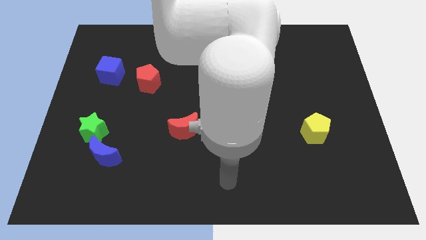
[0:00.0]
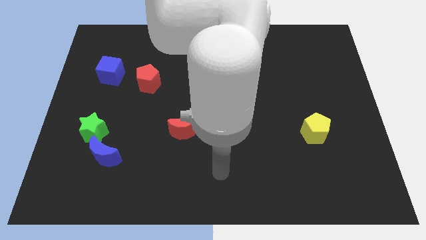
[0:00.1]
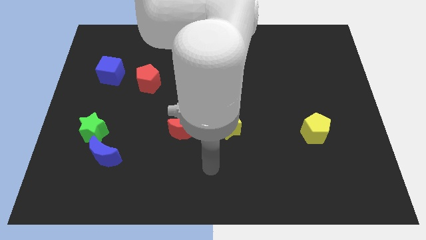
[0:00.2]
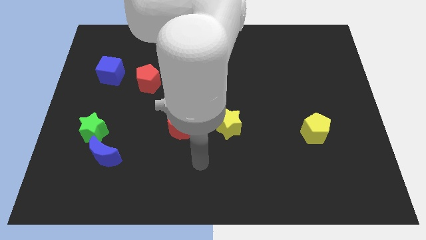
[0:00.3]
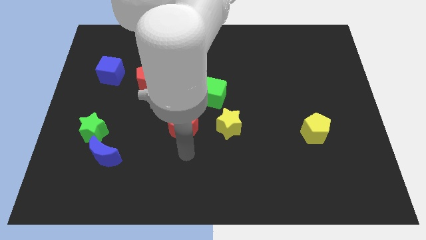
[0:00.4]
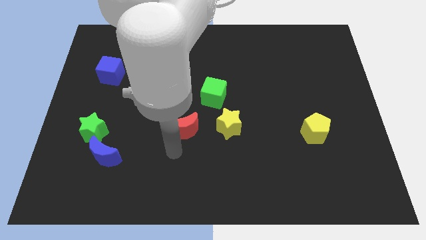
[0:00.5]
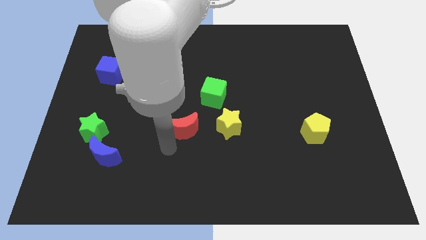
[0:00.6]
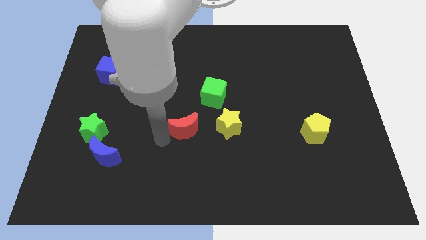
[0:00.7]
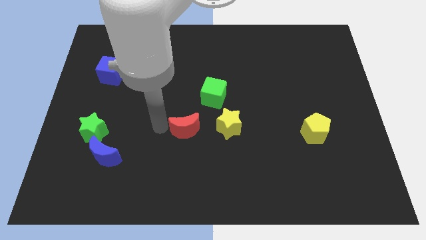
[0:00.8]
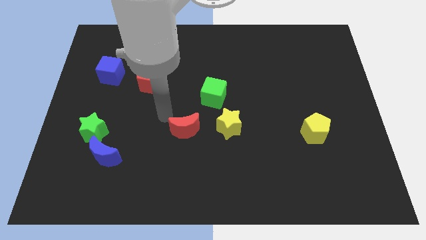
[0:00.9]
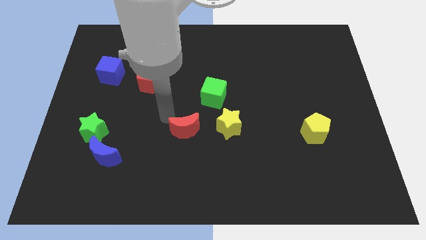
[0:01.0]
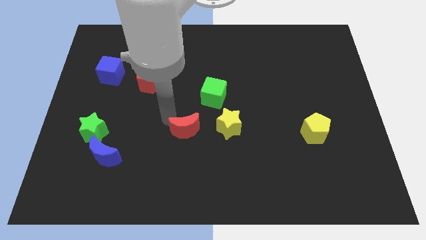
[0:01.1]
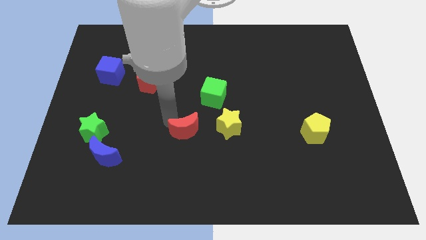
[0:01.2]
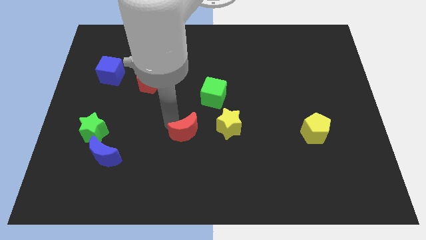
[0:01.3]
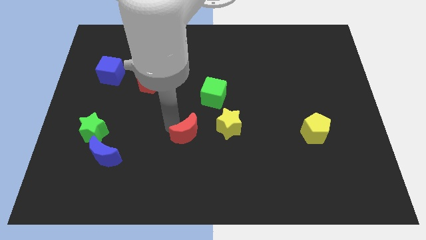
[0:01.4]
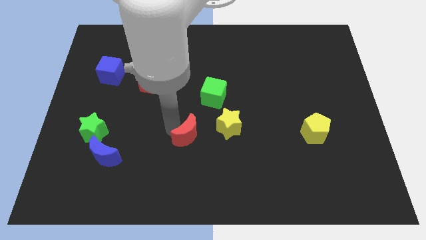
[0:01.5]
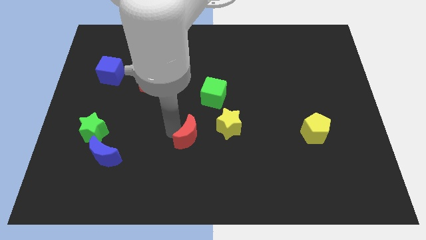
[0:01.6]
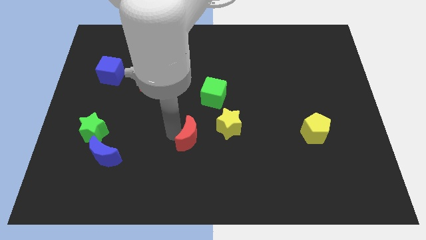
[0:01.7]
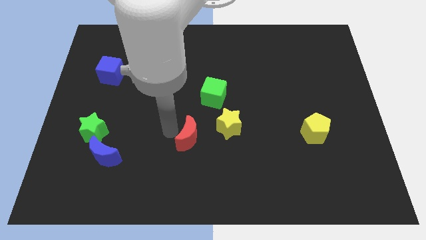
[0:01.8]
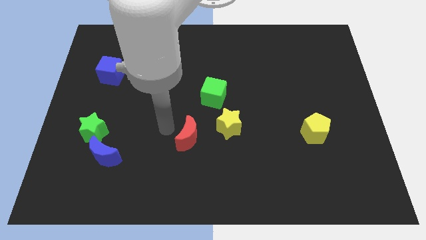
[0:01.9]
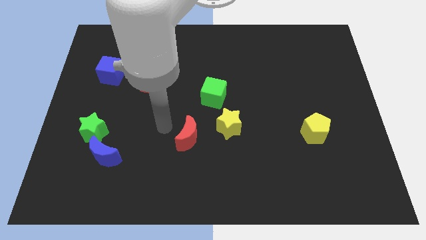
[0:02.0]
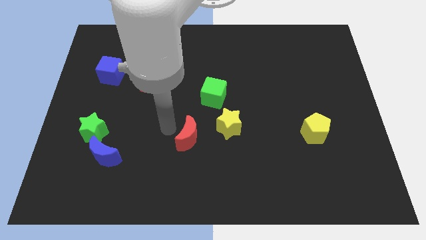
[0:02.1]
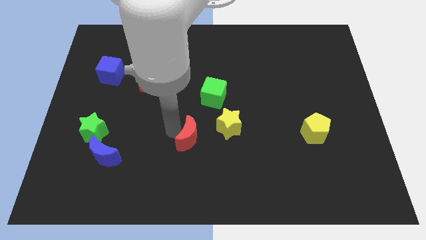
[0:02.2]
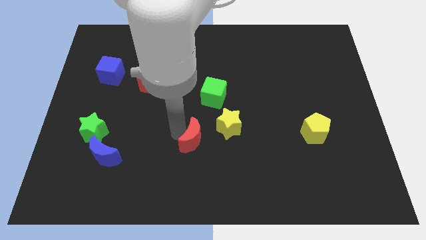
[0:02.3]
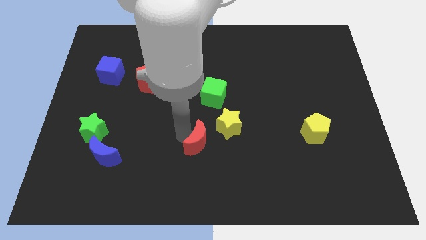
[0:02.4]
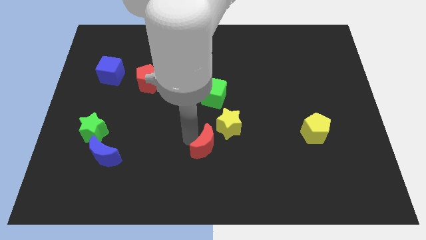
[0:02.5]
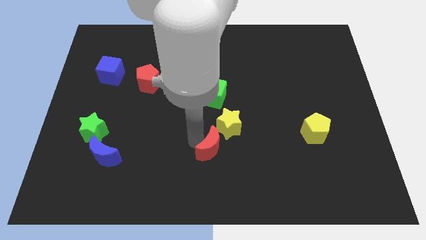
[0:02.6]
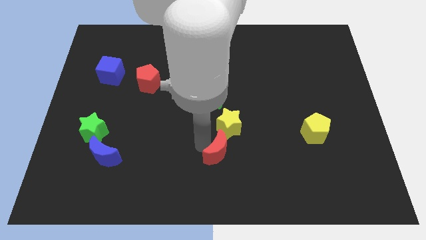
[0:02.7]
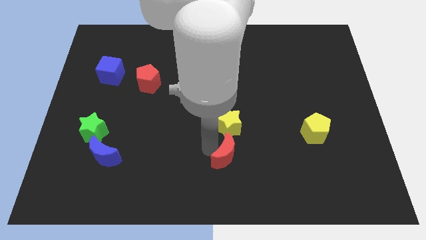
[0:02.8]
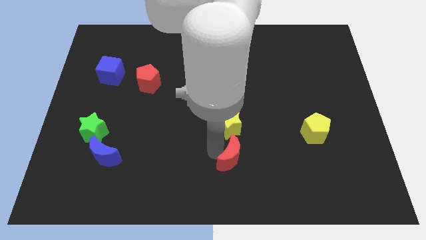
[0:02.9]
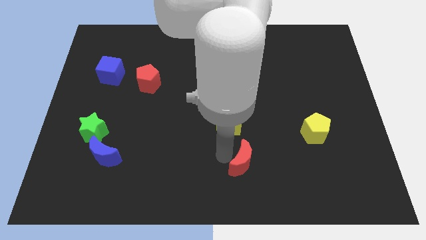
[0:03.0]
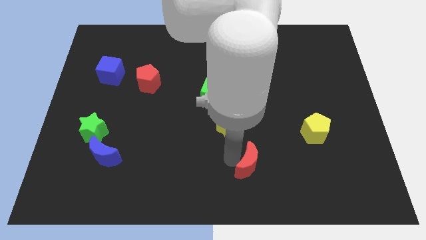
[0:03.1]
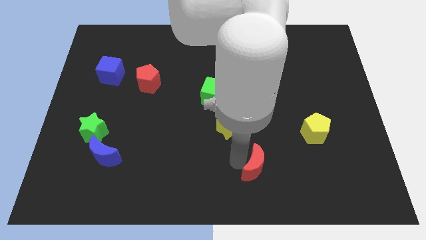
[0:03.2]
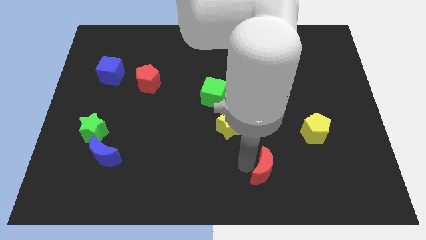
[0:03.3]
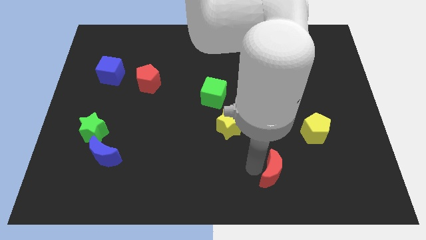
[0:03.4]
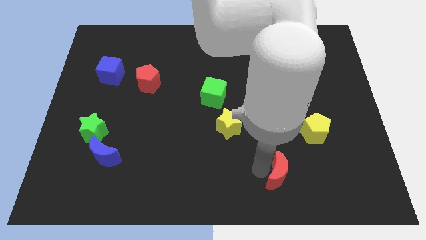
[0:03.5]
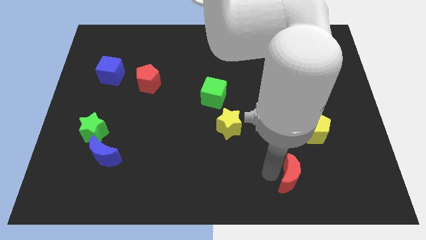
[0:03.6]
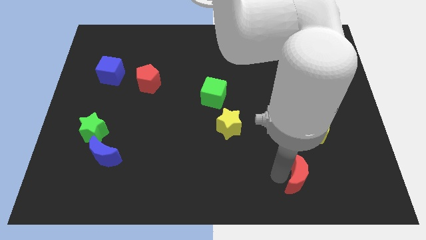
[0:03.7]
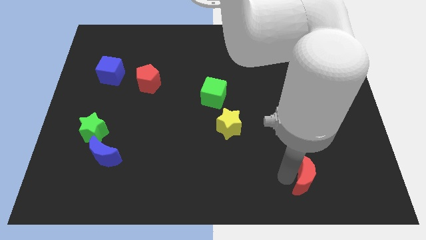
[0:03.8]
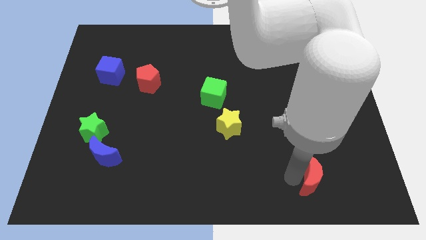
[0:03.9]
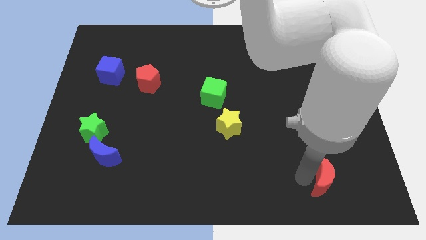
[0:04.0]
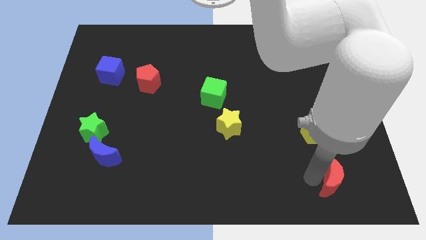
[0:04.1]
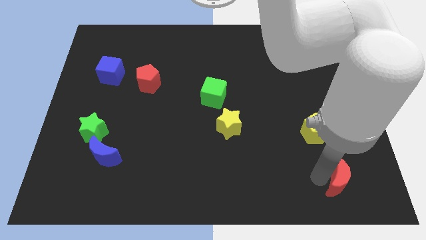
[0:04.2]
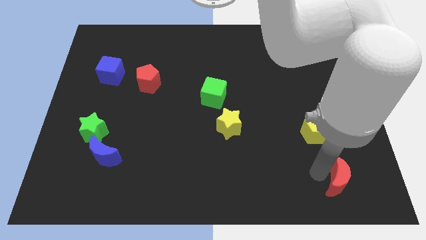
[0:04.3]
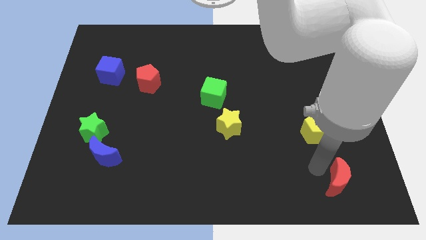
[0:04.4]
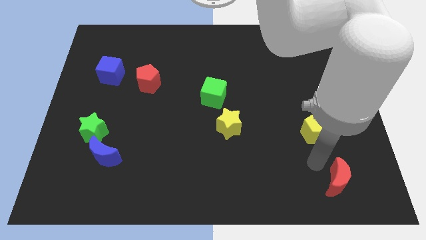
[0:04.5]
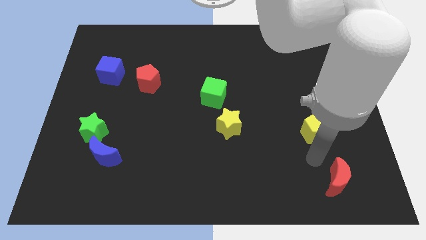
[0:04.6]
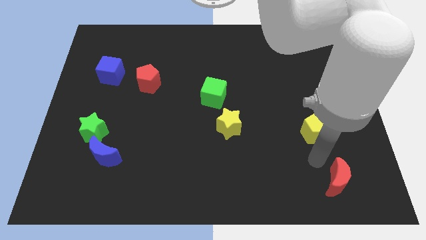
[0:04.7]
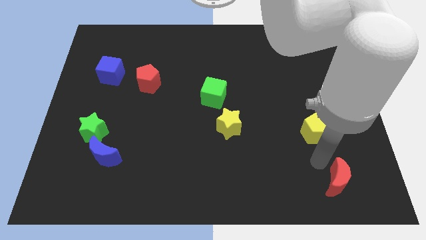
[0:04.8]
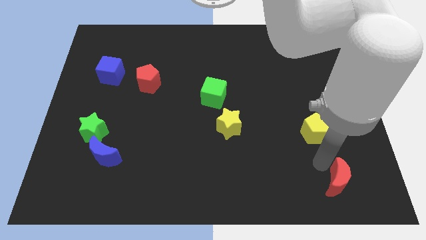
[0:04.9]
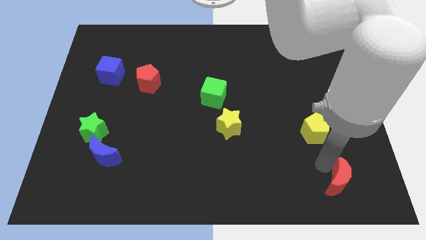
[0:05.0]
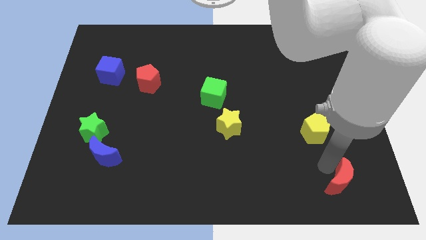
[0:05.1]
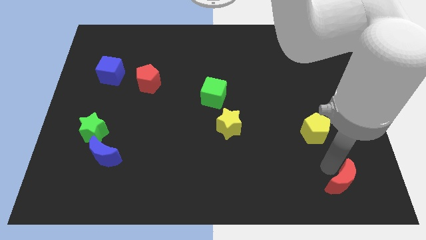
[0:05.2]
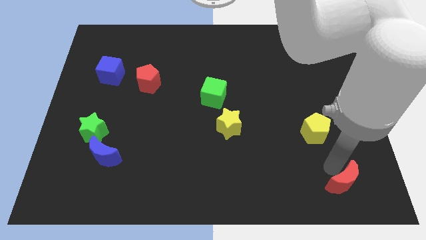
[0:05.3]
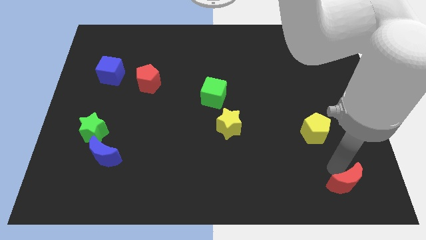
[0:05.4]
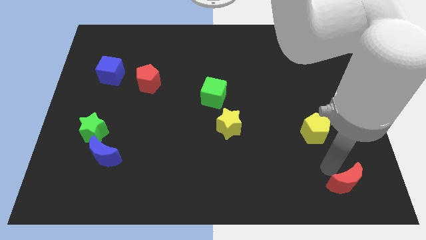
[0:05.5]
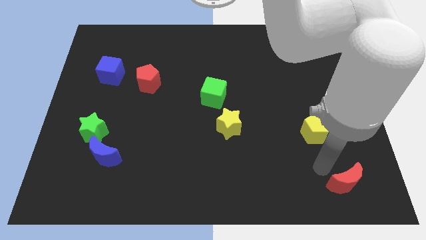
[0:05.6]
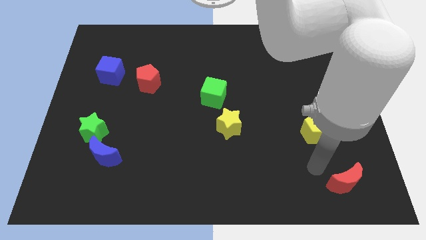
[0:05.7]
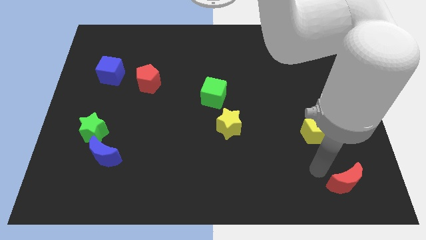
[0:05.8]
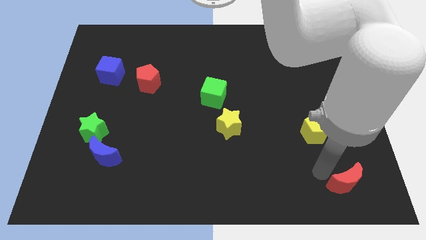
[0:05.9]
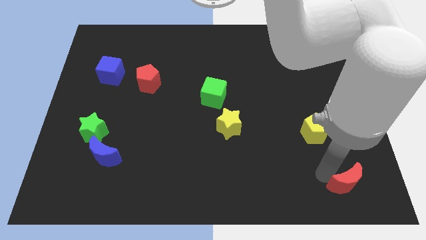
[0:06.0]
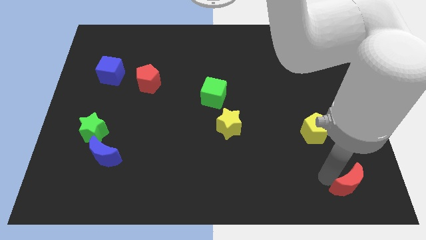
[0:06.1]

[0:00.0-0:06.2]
move the red moon to the bottom right corner
